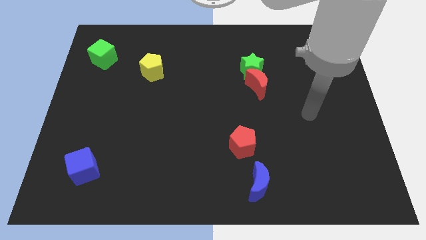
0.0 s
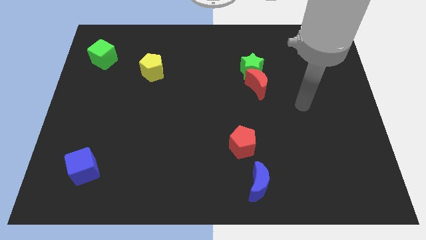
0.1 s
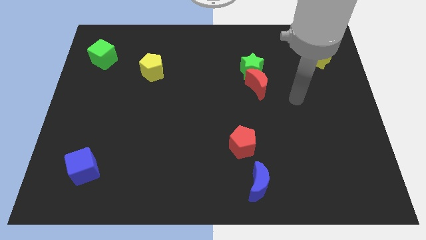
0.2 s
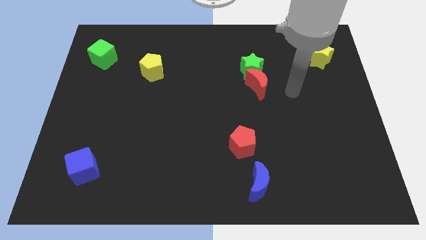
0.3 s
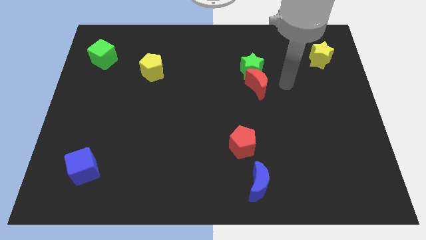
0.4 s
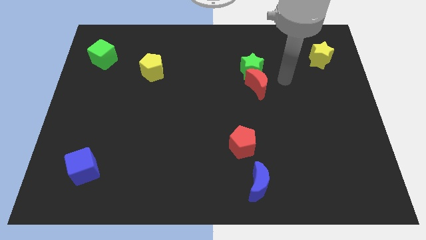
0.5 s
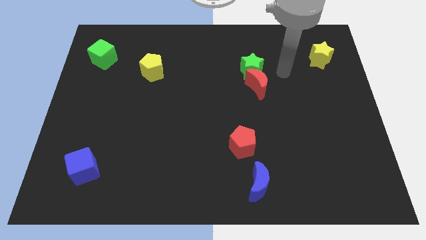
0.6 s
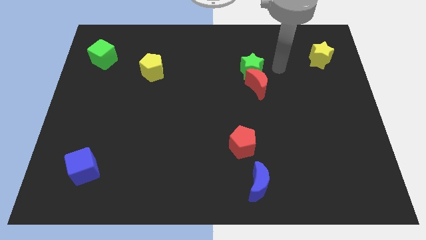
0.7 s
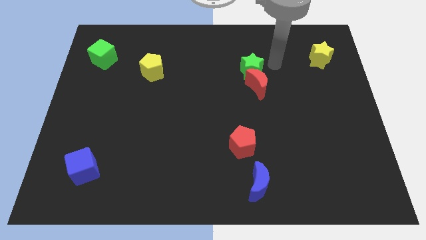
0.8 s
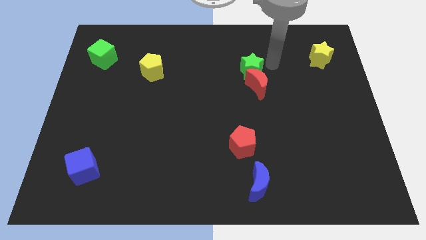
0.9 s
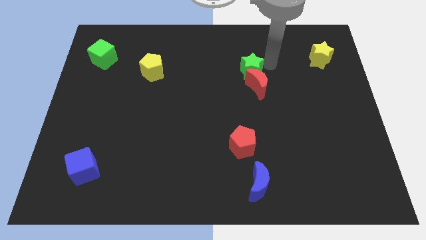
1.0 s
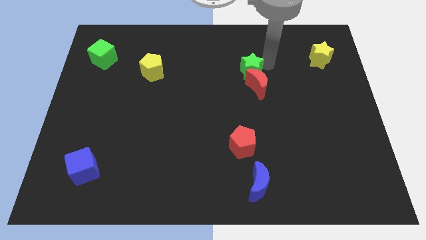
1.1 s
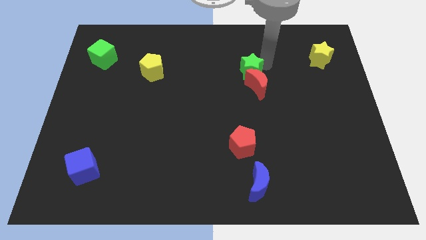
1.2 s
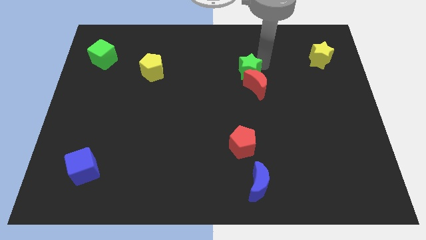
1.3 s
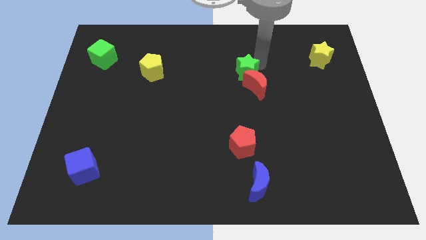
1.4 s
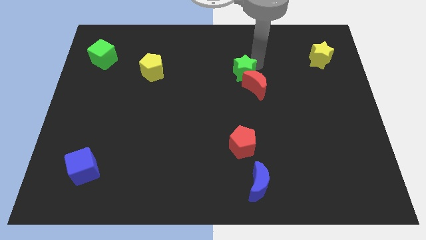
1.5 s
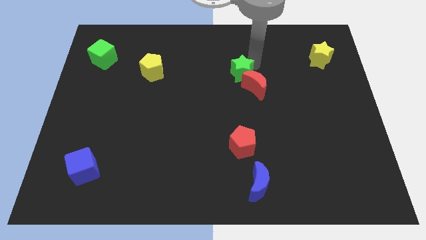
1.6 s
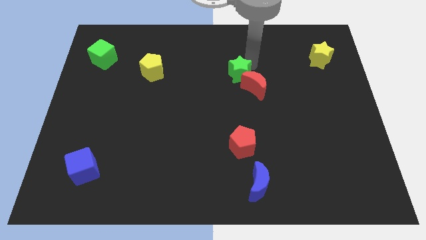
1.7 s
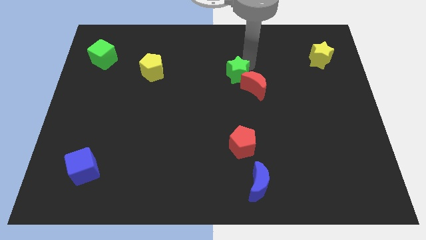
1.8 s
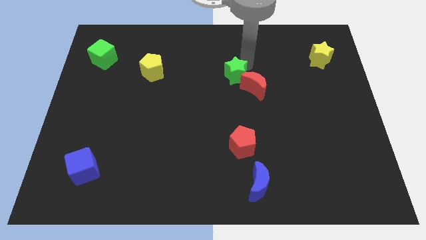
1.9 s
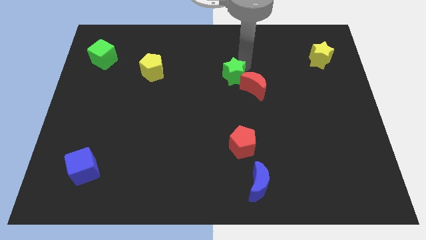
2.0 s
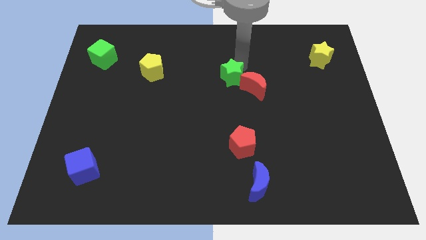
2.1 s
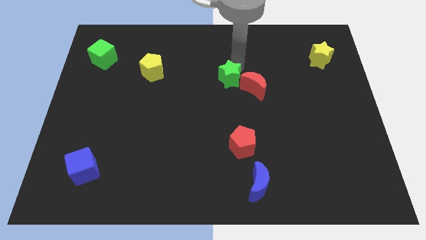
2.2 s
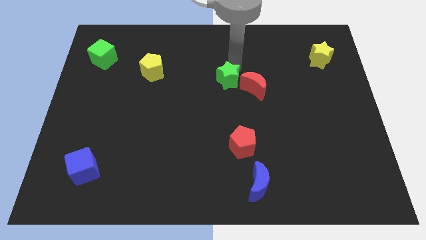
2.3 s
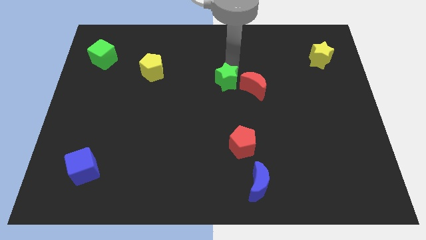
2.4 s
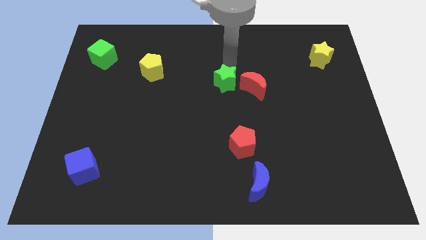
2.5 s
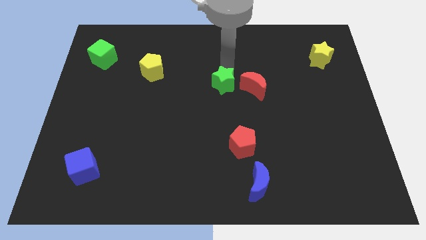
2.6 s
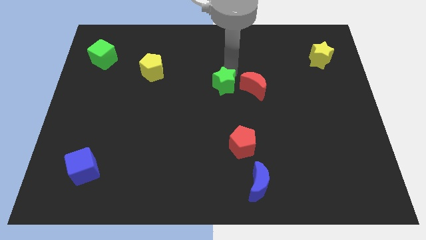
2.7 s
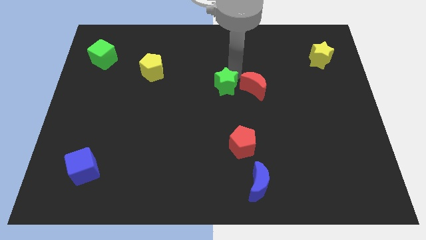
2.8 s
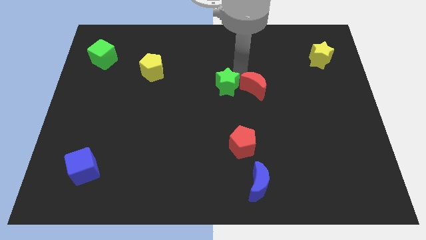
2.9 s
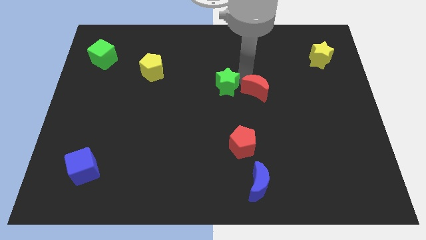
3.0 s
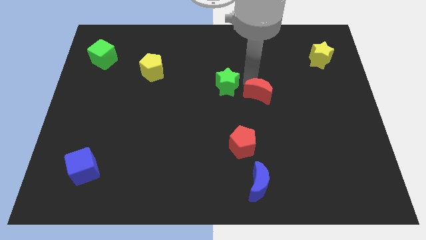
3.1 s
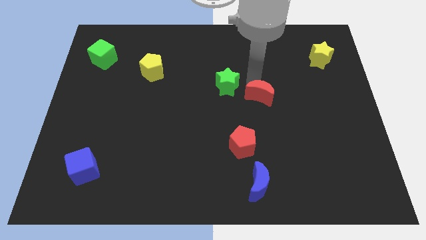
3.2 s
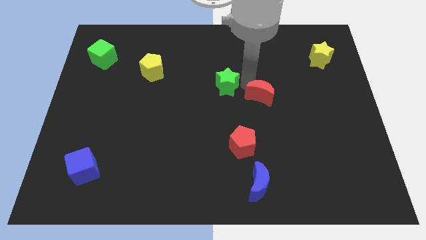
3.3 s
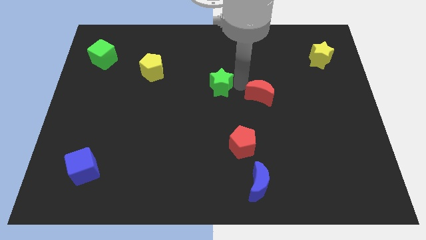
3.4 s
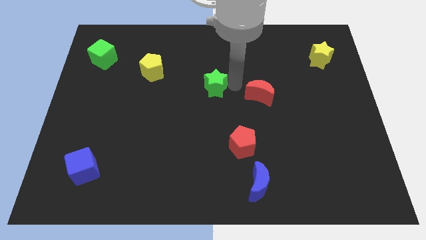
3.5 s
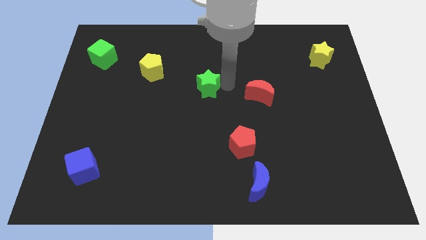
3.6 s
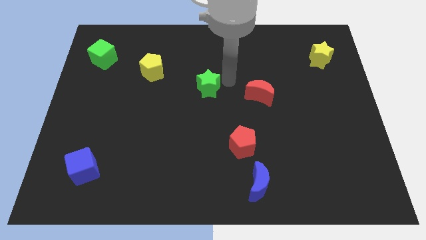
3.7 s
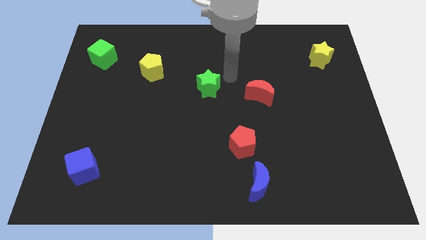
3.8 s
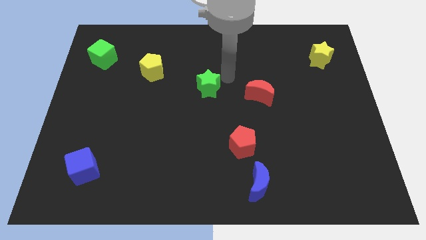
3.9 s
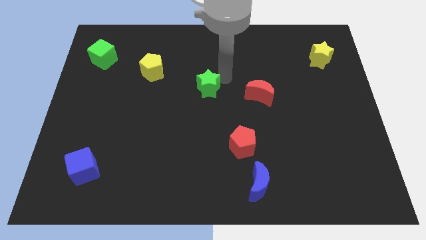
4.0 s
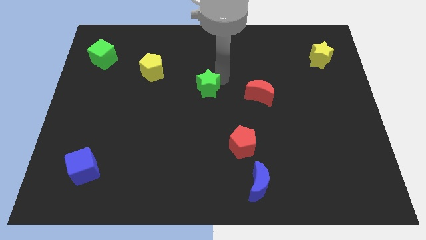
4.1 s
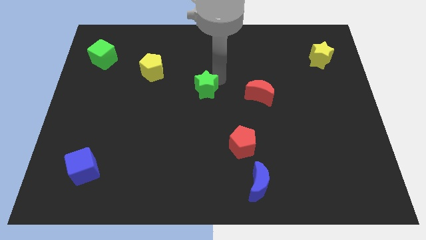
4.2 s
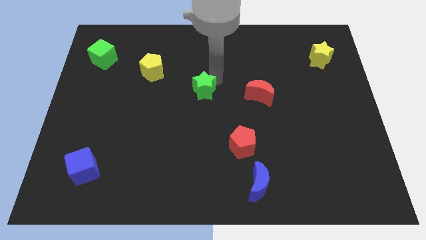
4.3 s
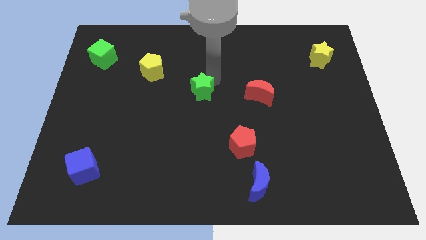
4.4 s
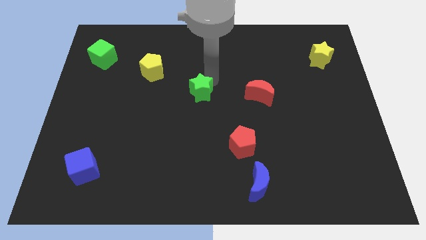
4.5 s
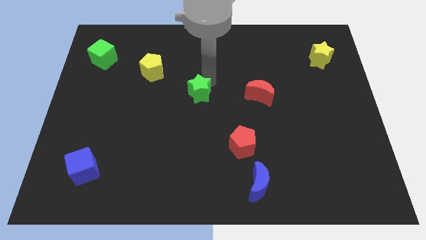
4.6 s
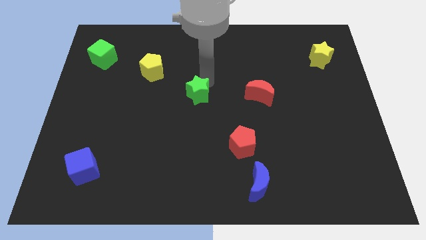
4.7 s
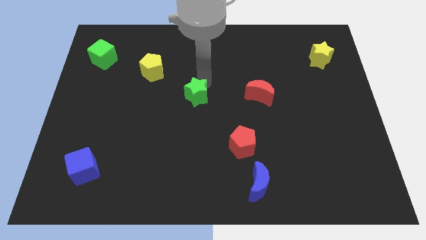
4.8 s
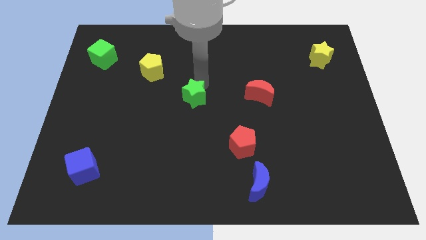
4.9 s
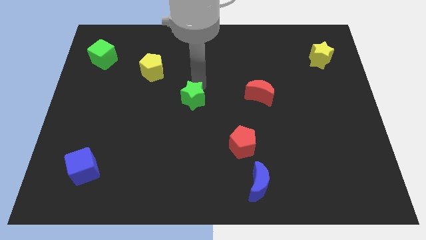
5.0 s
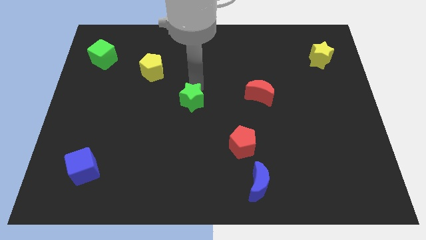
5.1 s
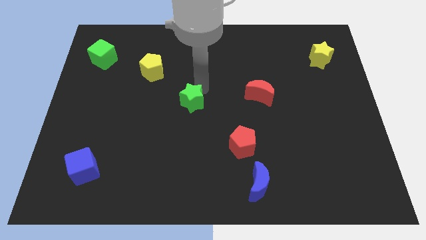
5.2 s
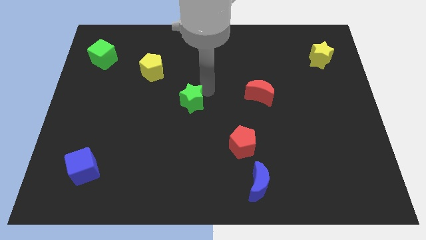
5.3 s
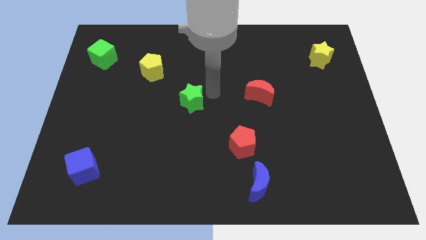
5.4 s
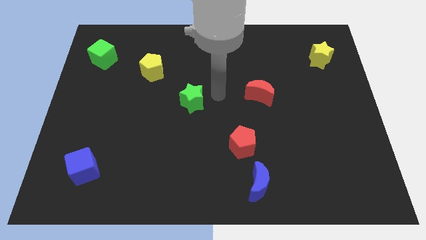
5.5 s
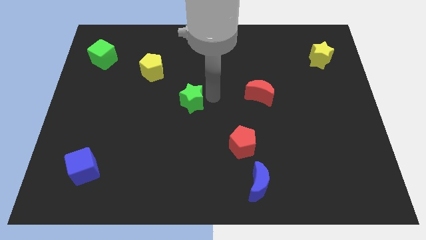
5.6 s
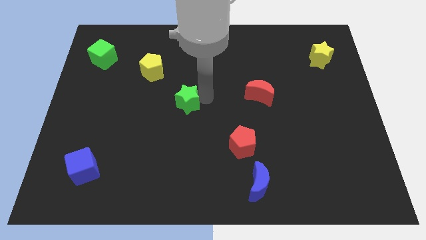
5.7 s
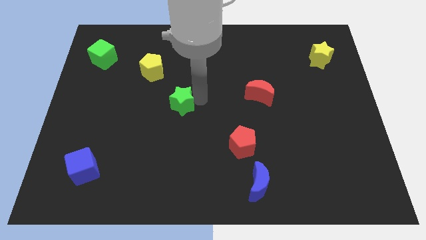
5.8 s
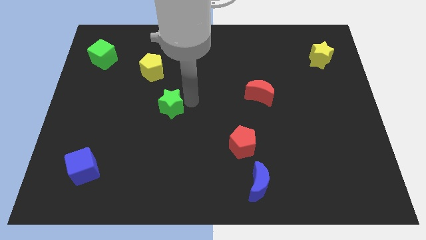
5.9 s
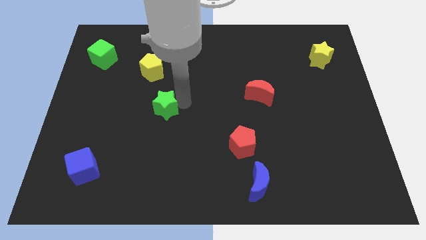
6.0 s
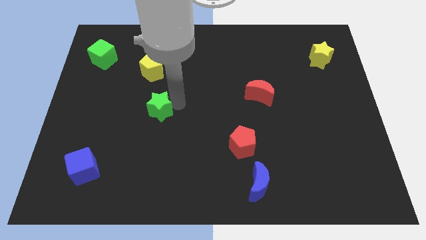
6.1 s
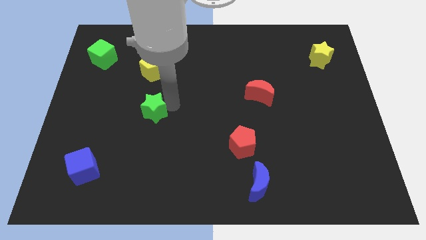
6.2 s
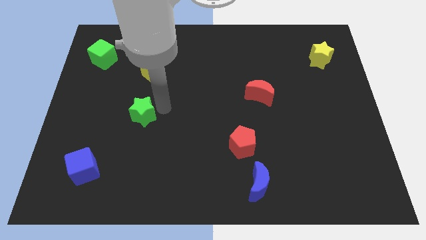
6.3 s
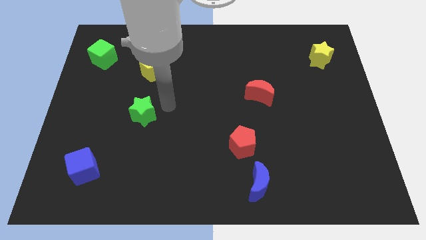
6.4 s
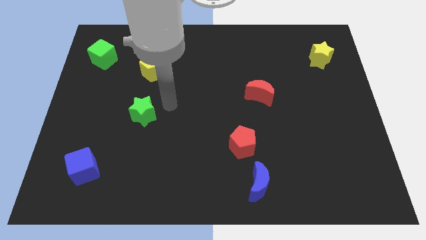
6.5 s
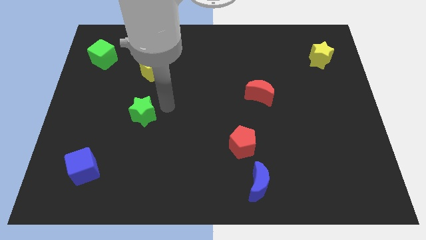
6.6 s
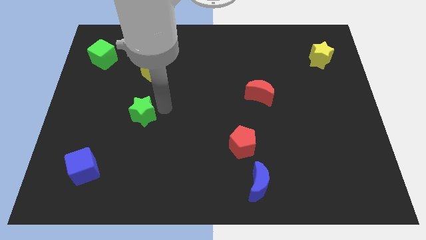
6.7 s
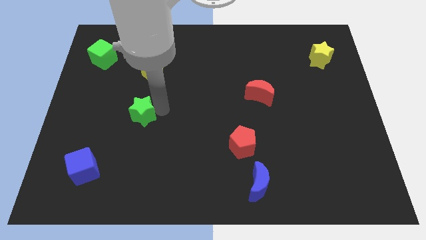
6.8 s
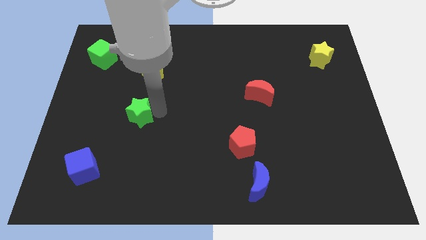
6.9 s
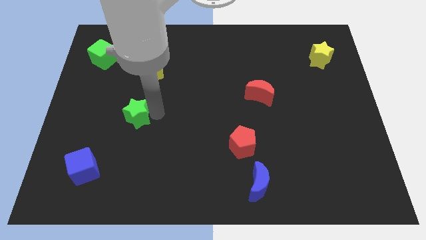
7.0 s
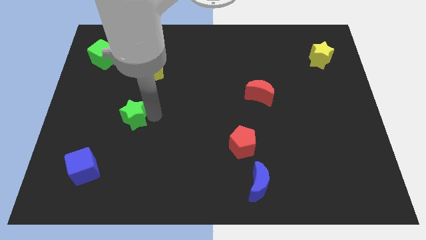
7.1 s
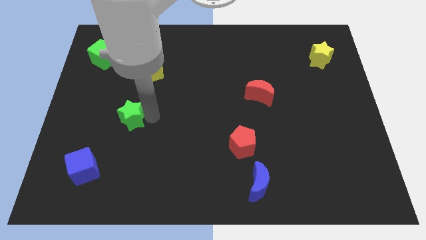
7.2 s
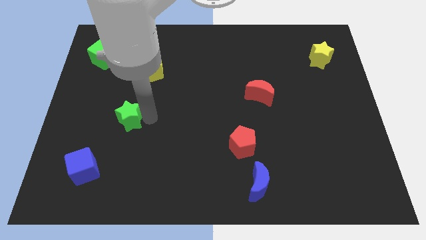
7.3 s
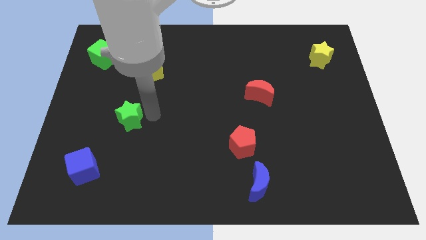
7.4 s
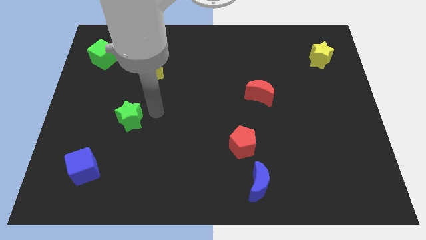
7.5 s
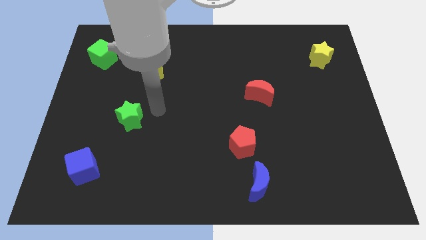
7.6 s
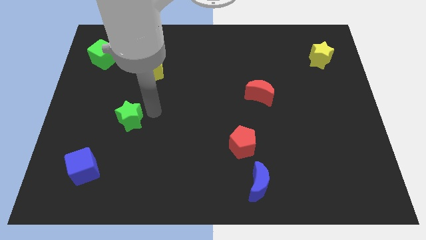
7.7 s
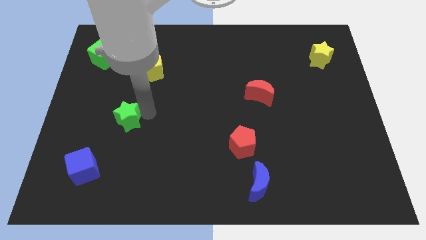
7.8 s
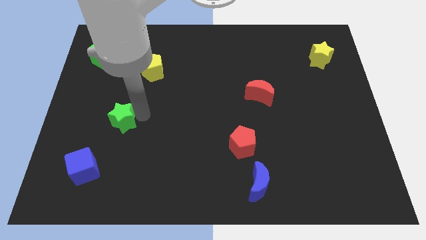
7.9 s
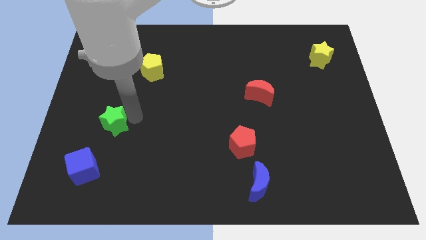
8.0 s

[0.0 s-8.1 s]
move the green star above the blue cube
